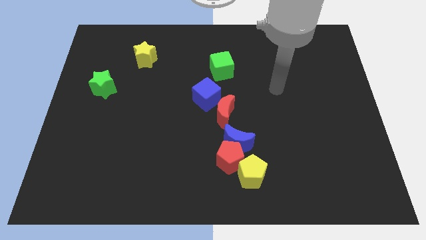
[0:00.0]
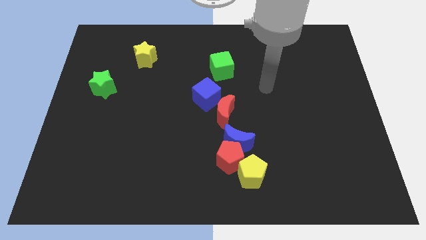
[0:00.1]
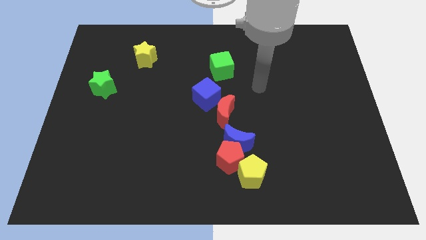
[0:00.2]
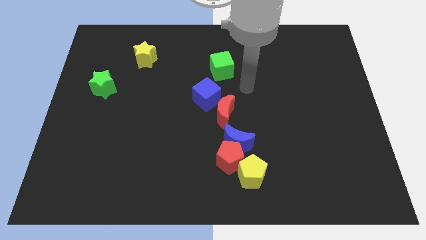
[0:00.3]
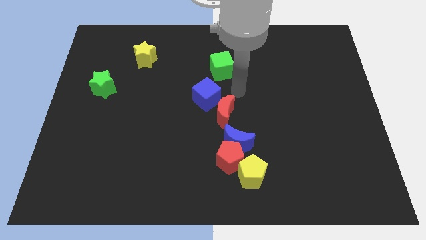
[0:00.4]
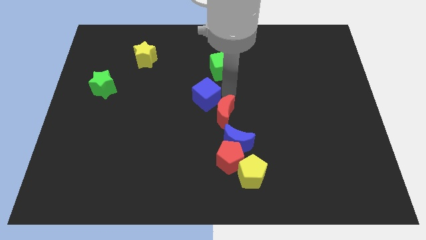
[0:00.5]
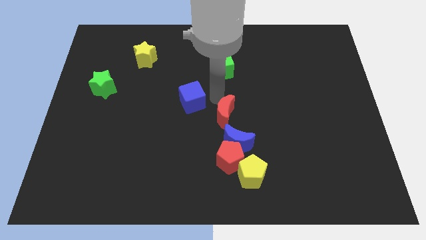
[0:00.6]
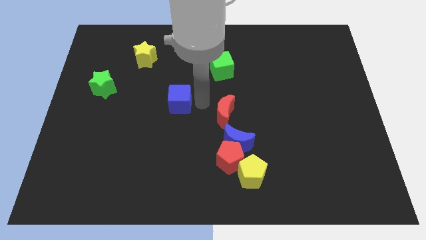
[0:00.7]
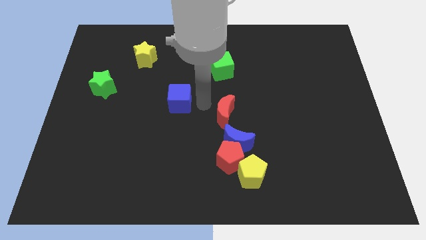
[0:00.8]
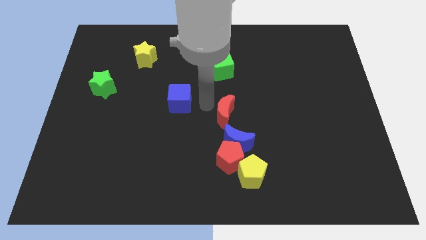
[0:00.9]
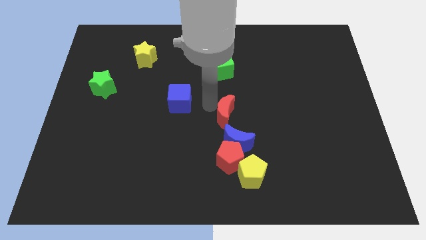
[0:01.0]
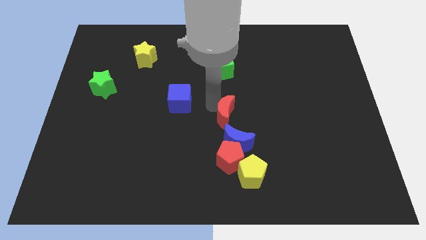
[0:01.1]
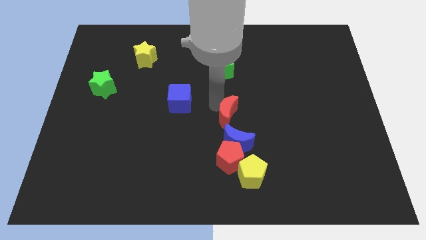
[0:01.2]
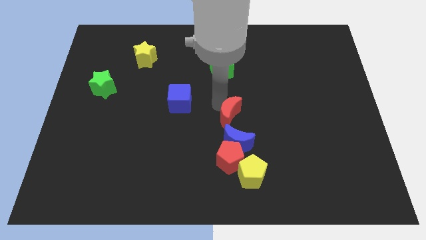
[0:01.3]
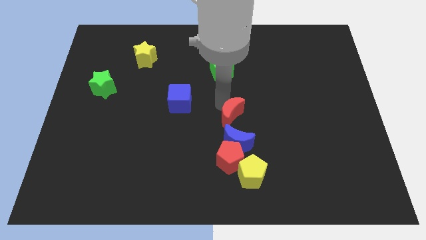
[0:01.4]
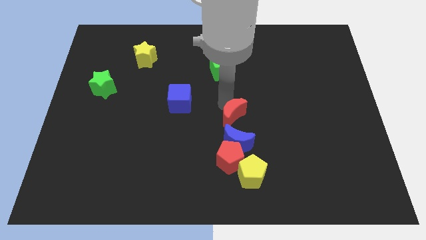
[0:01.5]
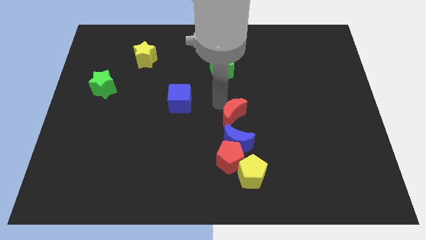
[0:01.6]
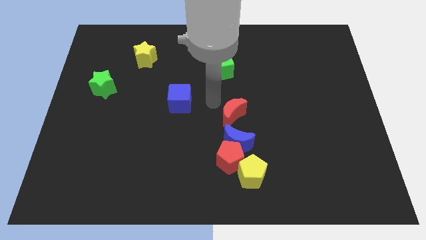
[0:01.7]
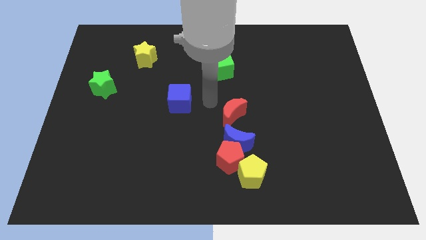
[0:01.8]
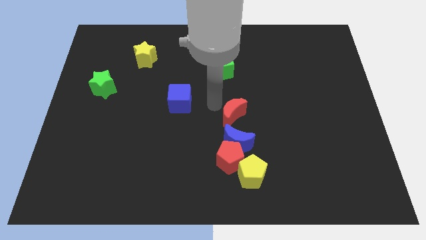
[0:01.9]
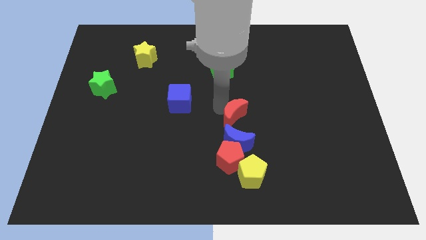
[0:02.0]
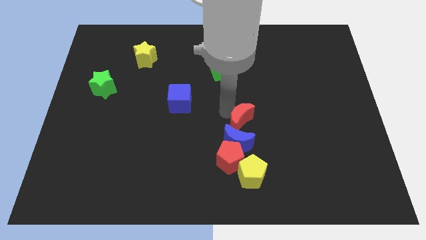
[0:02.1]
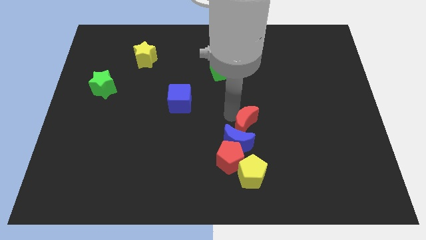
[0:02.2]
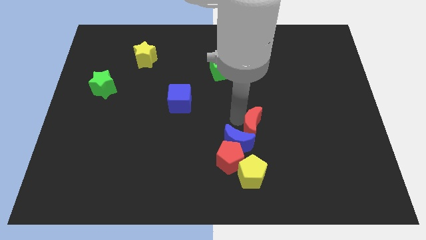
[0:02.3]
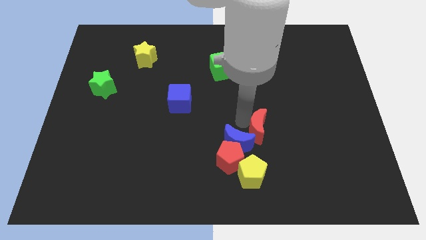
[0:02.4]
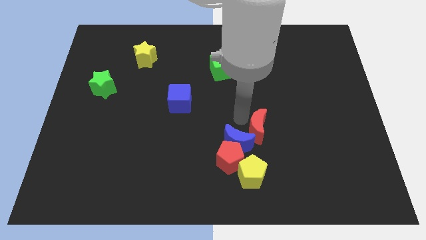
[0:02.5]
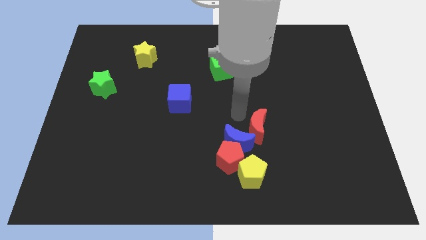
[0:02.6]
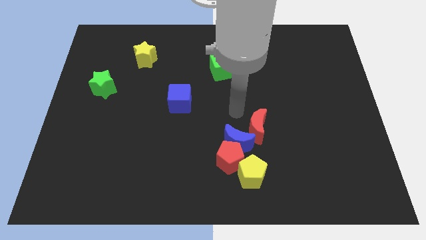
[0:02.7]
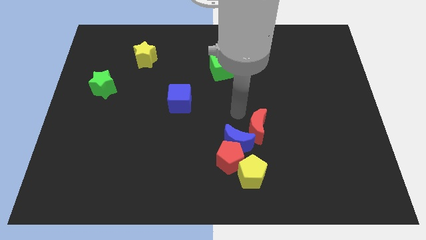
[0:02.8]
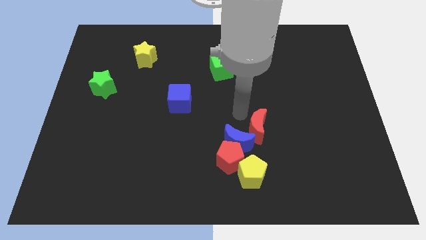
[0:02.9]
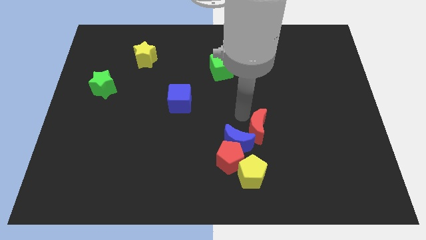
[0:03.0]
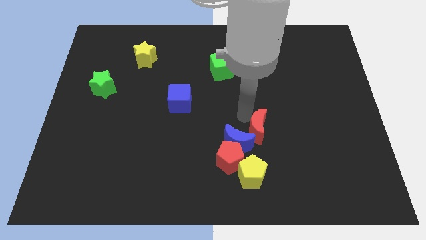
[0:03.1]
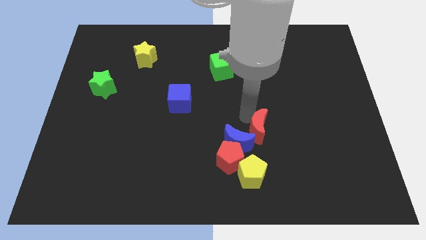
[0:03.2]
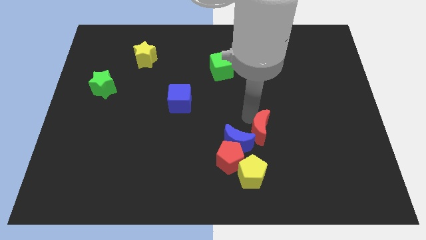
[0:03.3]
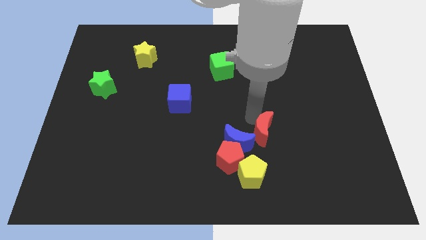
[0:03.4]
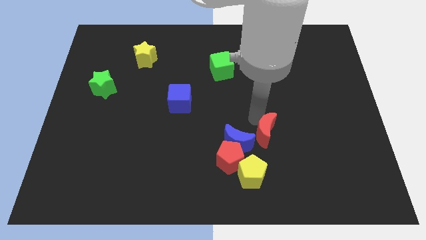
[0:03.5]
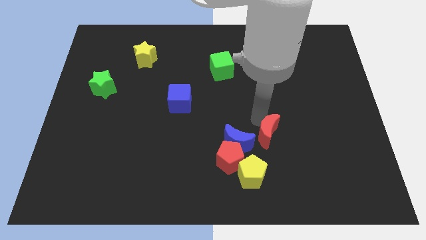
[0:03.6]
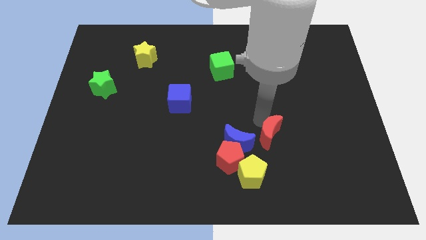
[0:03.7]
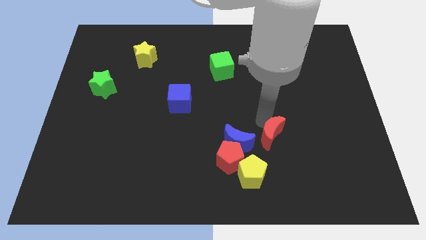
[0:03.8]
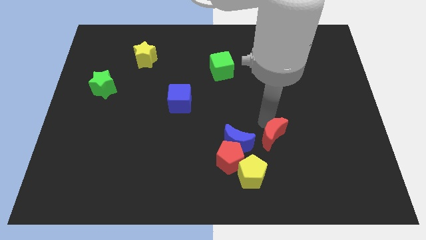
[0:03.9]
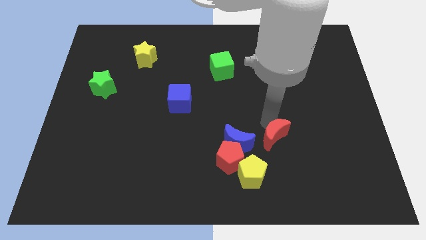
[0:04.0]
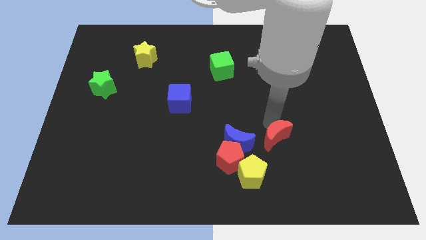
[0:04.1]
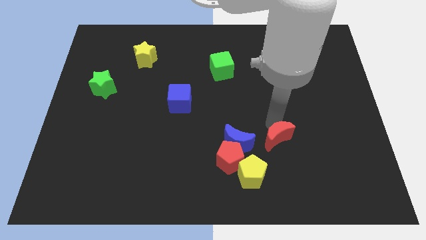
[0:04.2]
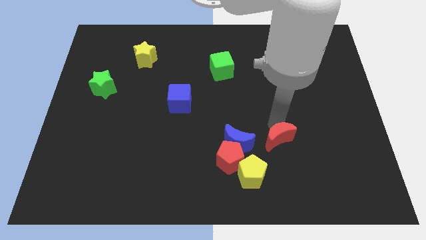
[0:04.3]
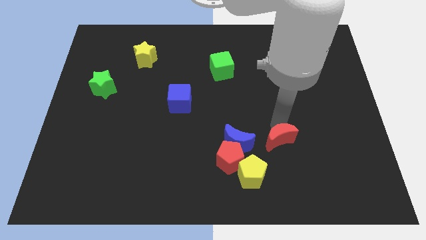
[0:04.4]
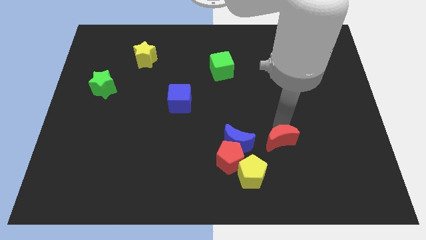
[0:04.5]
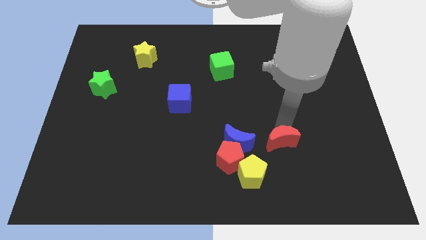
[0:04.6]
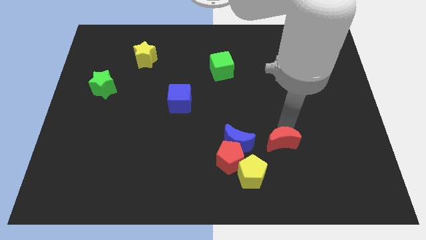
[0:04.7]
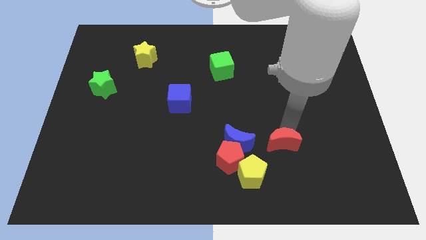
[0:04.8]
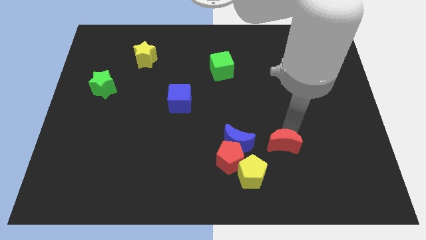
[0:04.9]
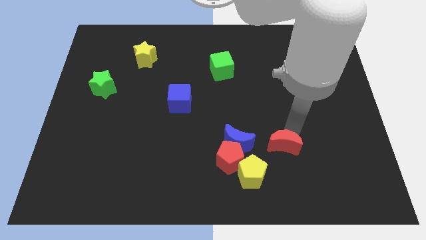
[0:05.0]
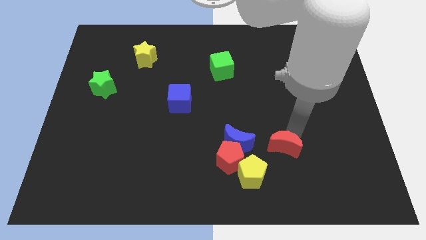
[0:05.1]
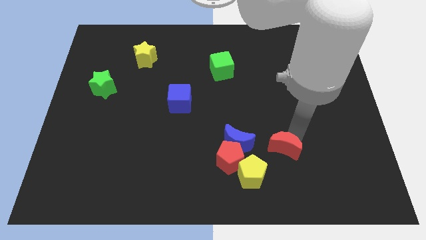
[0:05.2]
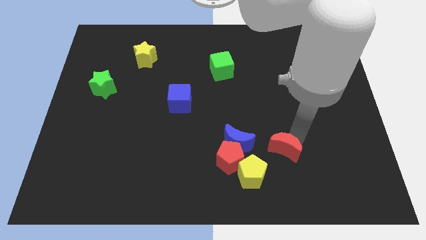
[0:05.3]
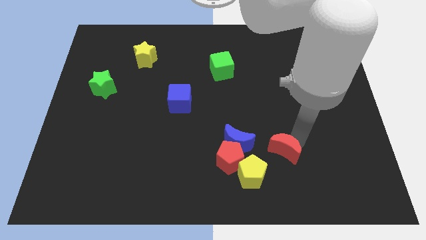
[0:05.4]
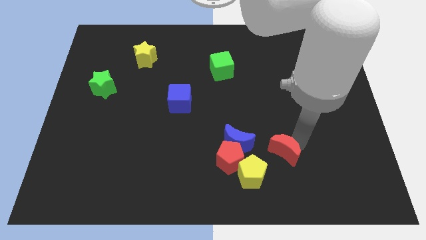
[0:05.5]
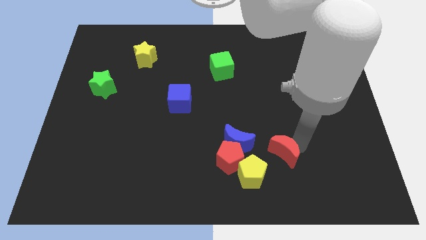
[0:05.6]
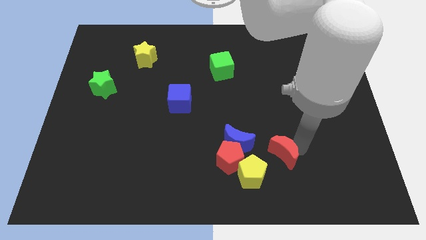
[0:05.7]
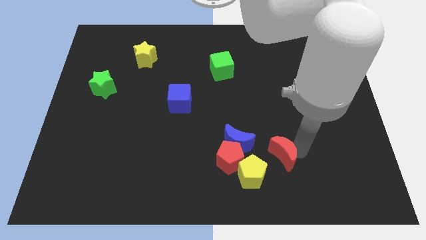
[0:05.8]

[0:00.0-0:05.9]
slide the red moon to the bottom right side of the blue moon

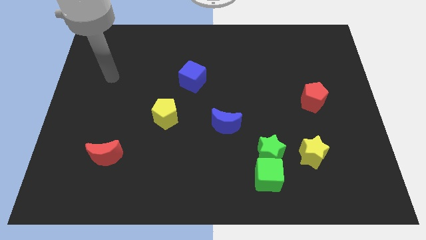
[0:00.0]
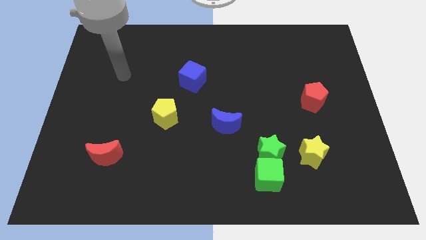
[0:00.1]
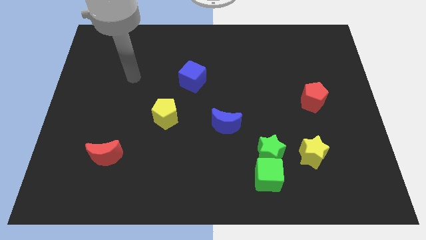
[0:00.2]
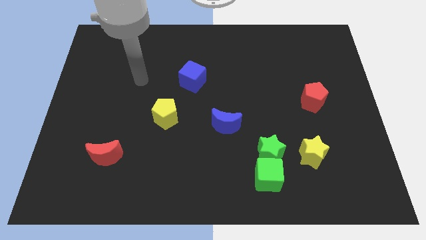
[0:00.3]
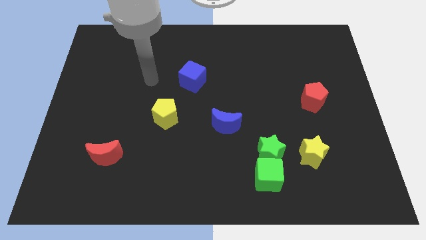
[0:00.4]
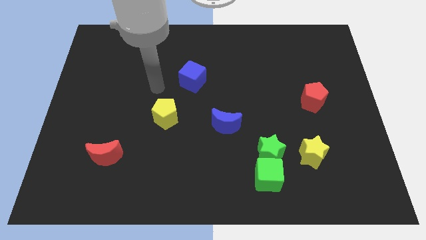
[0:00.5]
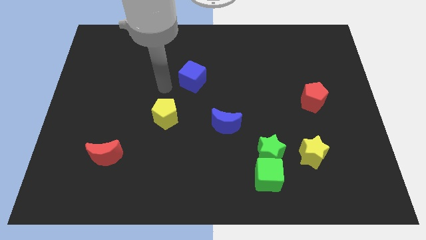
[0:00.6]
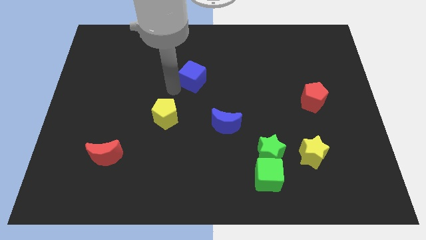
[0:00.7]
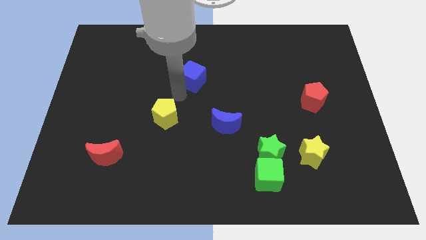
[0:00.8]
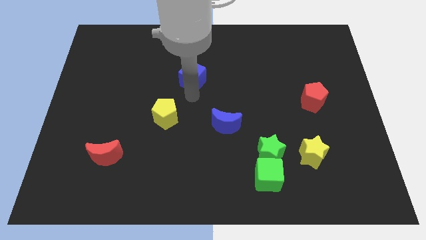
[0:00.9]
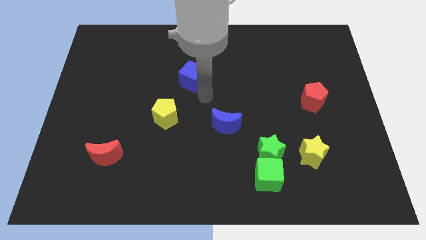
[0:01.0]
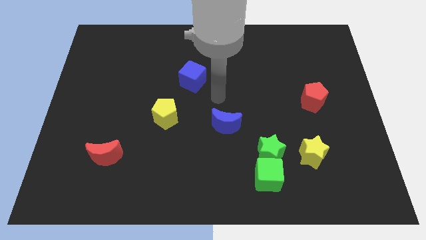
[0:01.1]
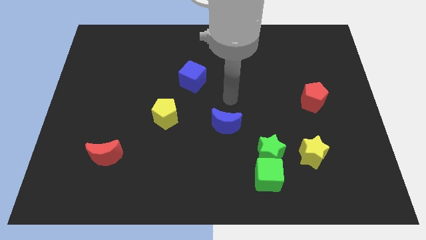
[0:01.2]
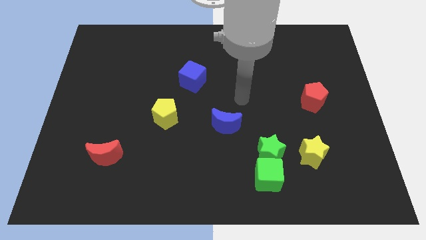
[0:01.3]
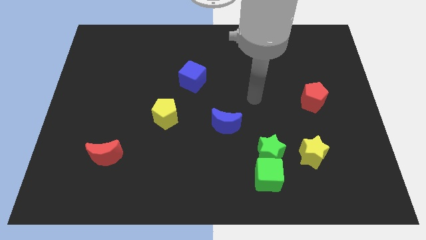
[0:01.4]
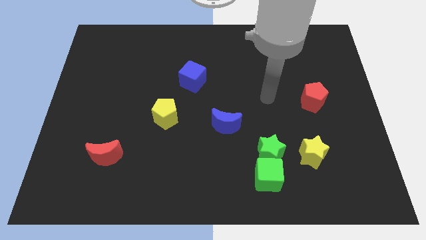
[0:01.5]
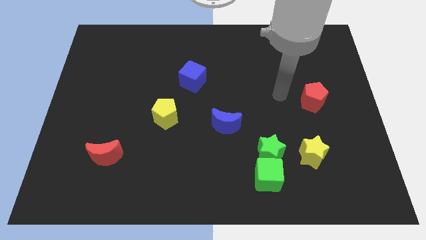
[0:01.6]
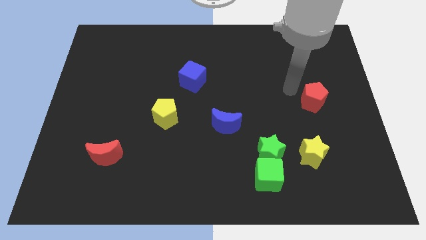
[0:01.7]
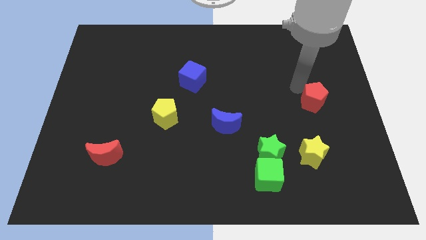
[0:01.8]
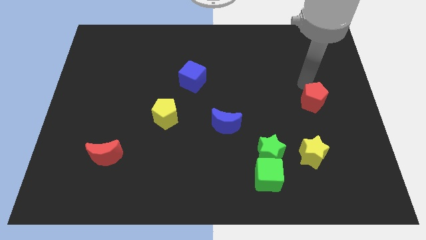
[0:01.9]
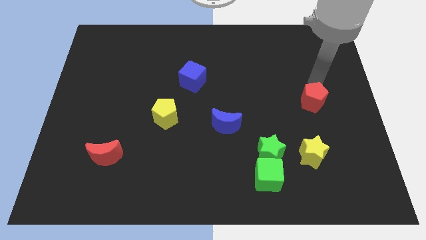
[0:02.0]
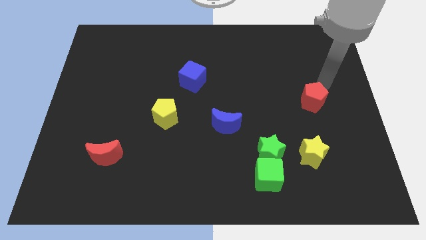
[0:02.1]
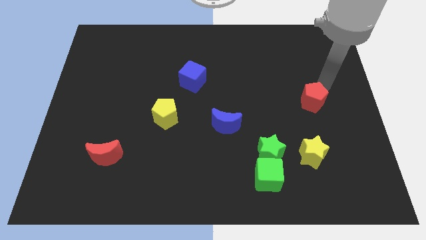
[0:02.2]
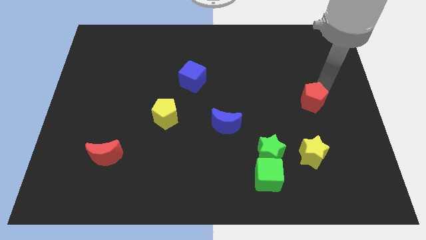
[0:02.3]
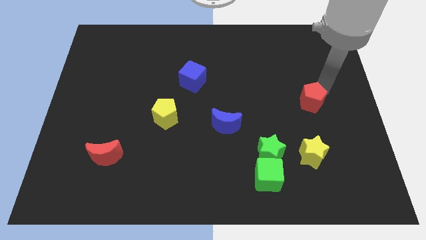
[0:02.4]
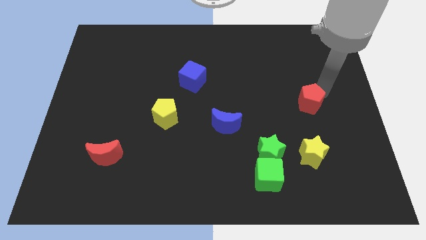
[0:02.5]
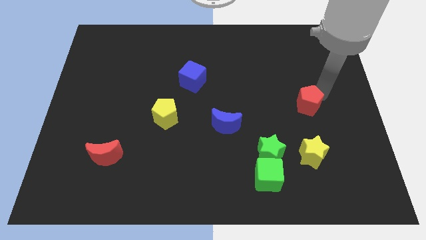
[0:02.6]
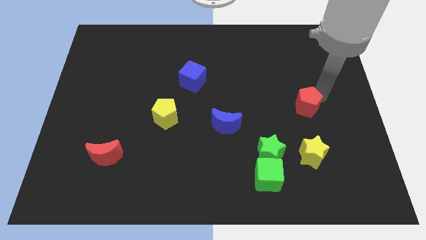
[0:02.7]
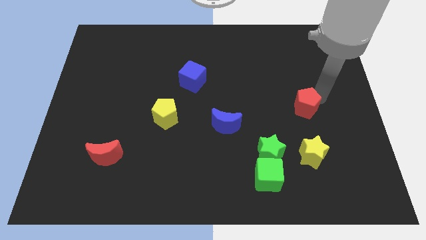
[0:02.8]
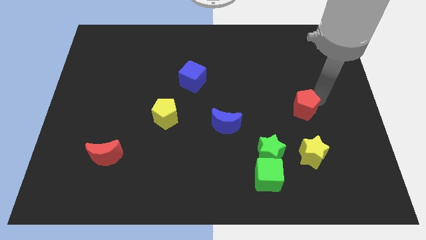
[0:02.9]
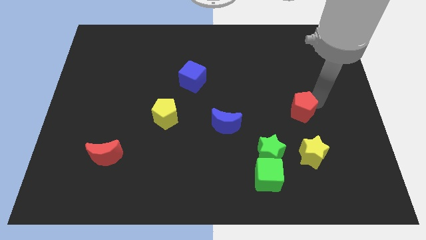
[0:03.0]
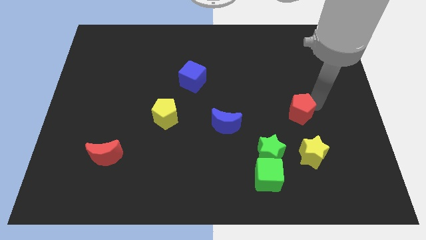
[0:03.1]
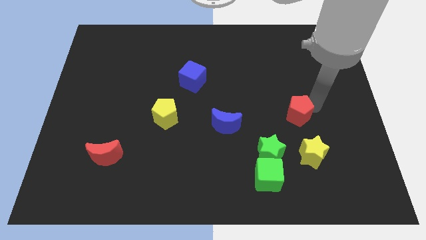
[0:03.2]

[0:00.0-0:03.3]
put the red pentagon to the top right of the green star
